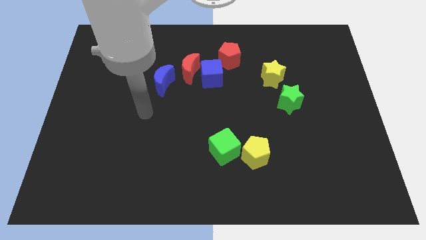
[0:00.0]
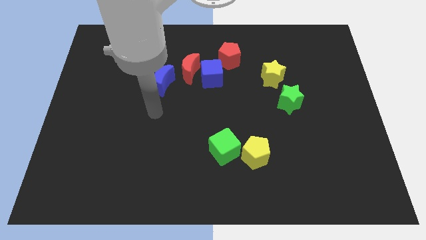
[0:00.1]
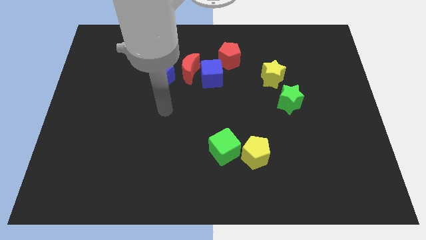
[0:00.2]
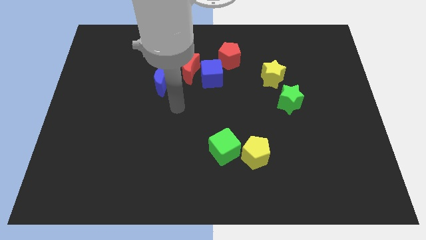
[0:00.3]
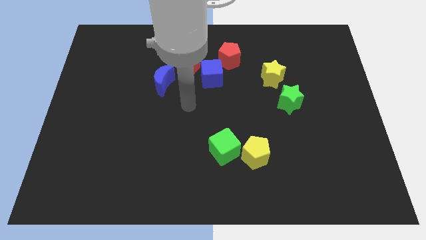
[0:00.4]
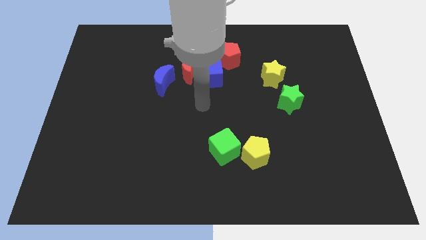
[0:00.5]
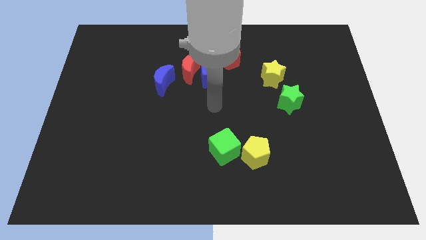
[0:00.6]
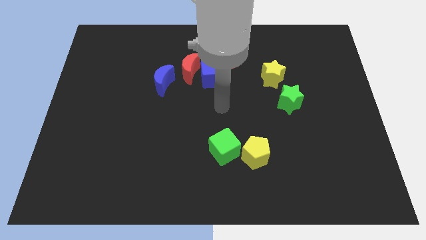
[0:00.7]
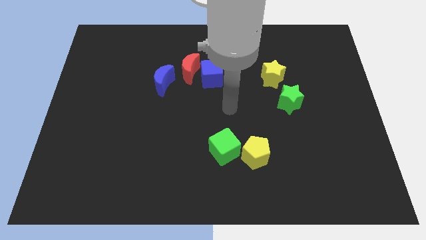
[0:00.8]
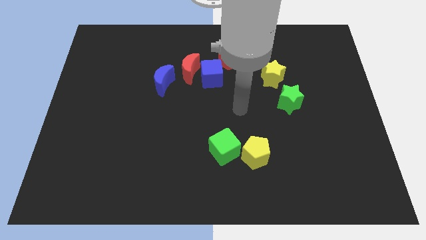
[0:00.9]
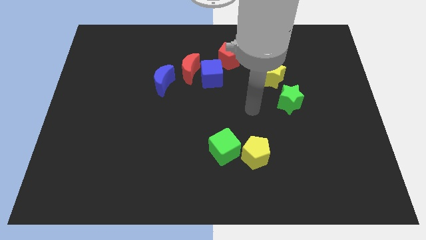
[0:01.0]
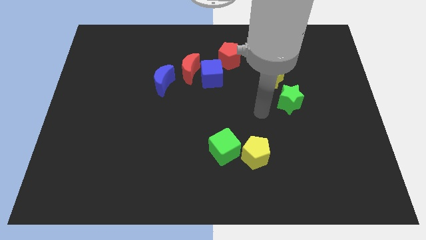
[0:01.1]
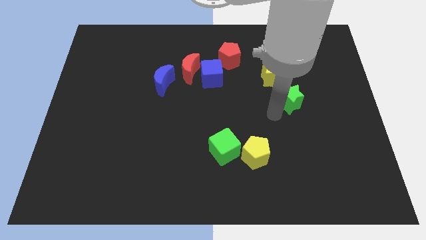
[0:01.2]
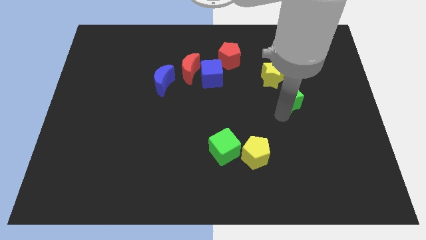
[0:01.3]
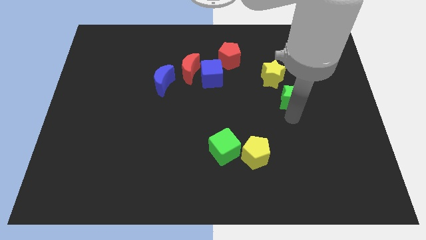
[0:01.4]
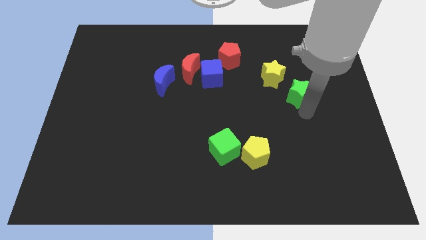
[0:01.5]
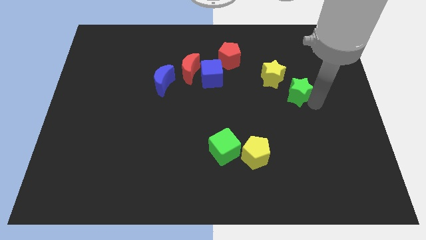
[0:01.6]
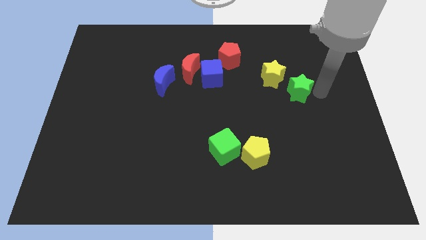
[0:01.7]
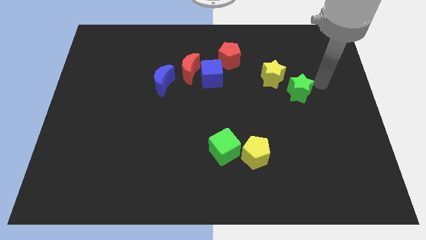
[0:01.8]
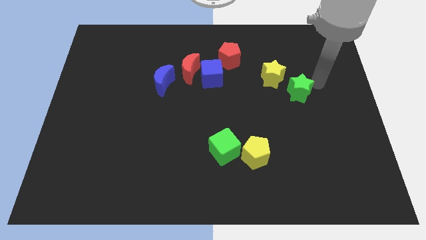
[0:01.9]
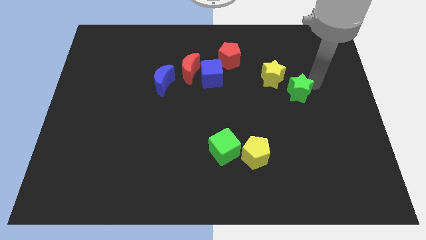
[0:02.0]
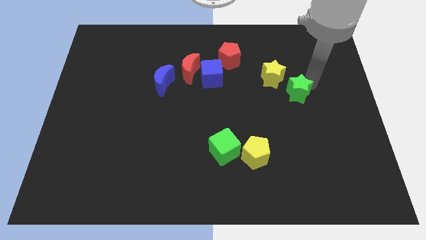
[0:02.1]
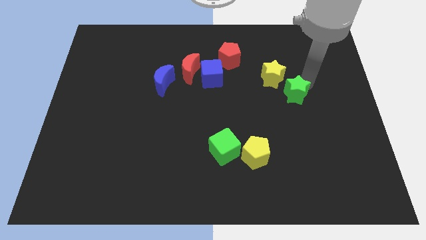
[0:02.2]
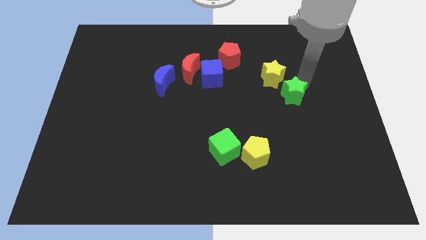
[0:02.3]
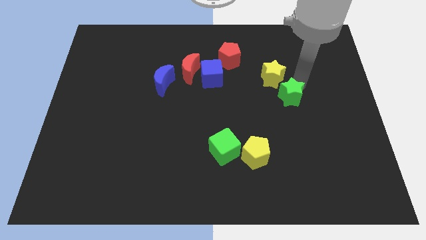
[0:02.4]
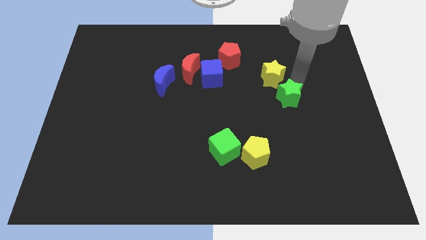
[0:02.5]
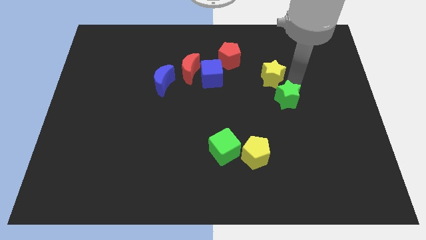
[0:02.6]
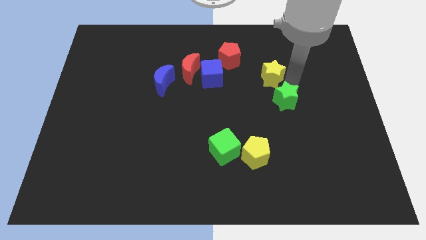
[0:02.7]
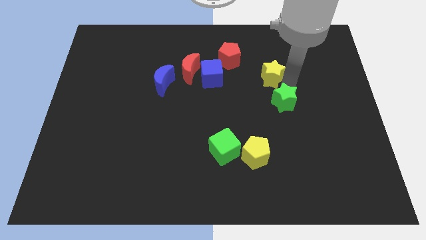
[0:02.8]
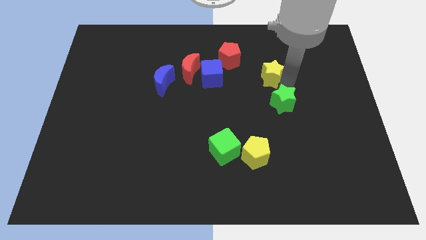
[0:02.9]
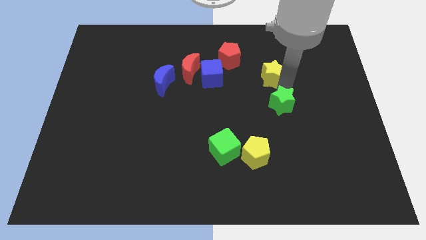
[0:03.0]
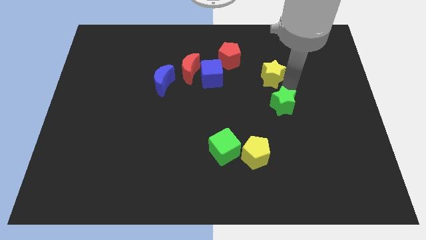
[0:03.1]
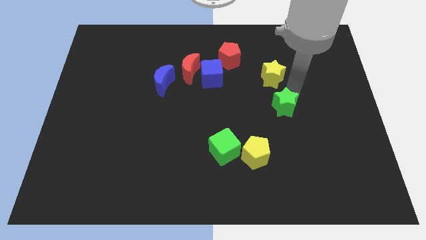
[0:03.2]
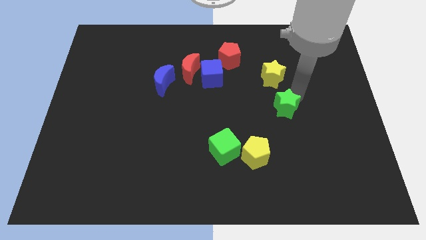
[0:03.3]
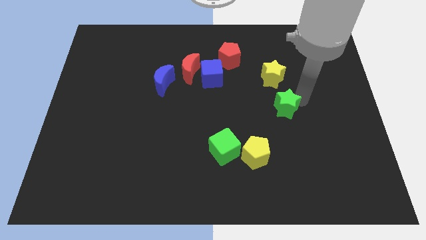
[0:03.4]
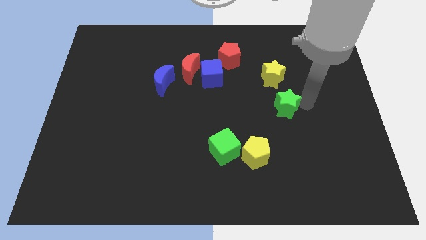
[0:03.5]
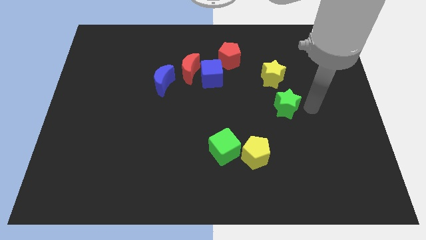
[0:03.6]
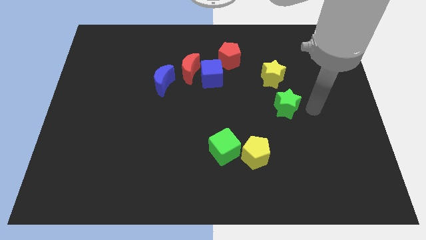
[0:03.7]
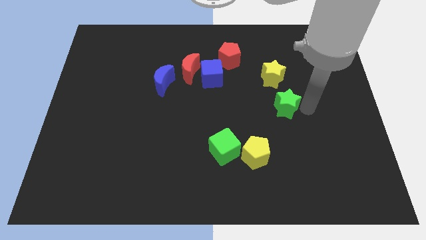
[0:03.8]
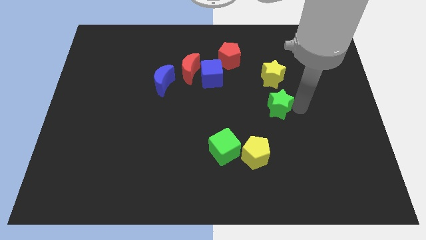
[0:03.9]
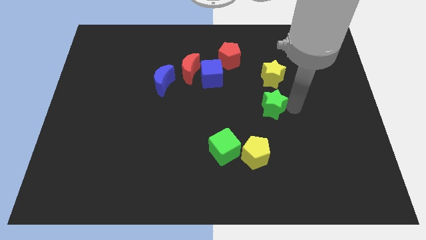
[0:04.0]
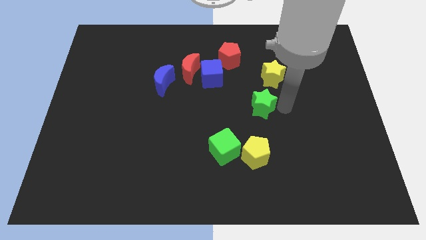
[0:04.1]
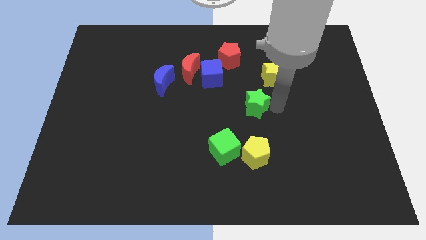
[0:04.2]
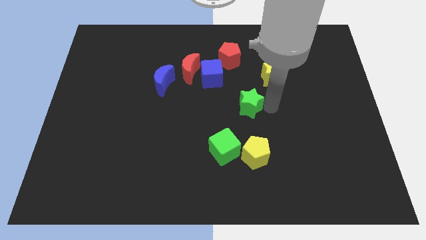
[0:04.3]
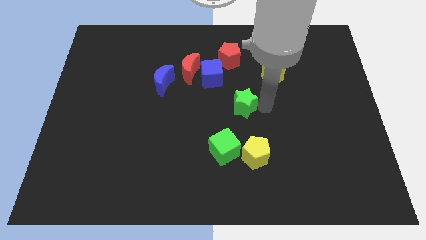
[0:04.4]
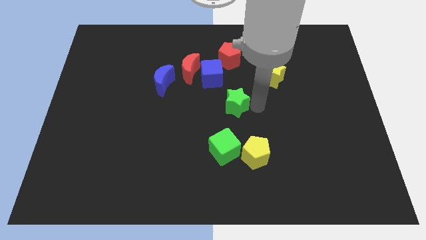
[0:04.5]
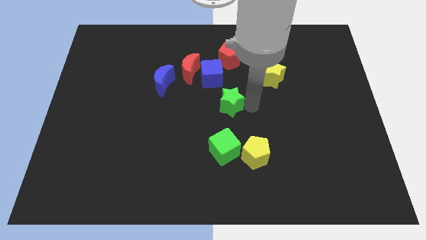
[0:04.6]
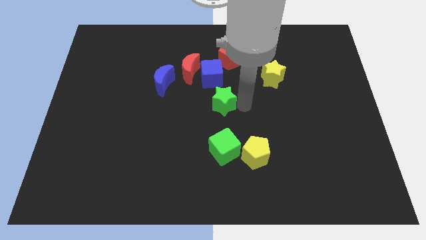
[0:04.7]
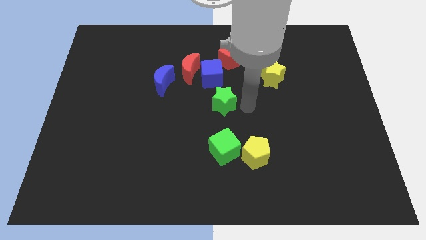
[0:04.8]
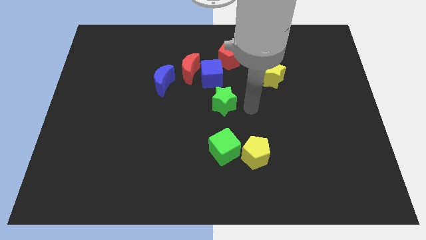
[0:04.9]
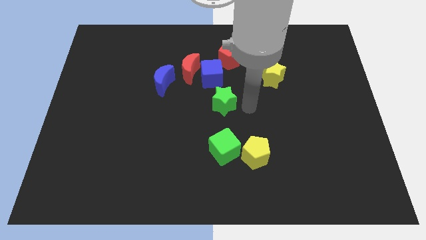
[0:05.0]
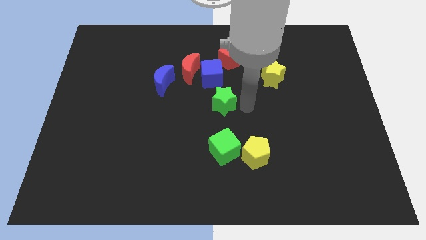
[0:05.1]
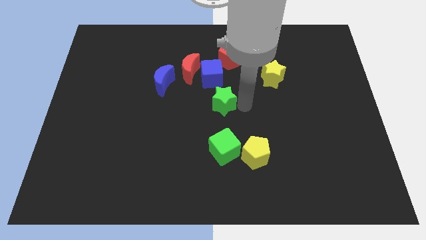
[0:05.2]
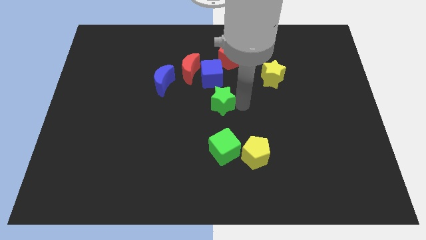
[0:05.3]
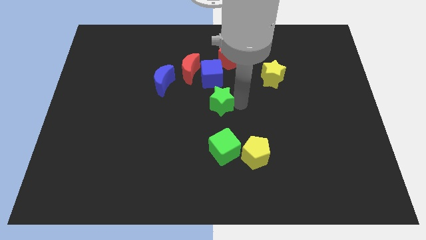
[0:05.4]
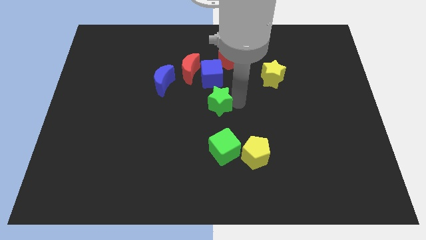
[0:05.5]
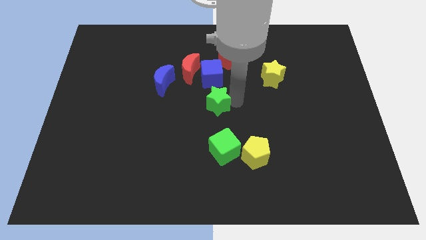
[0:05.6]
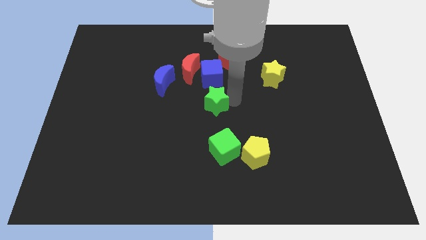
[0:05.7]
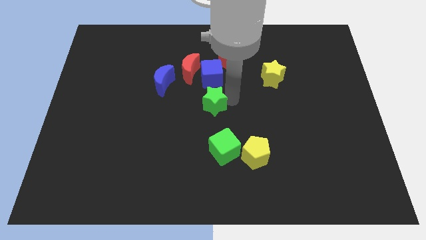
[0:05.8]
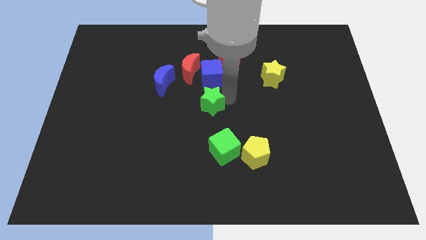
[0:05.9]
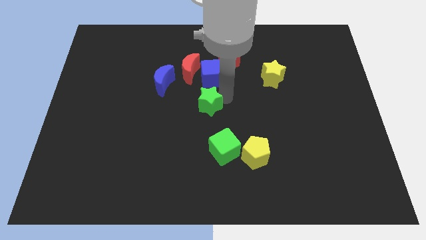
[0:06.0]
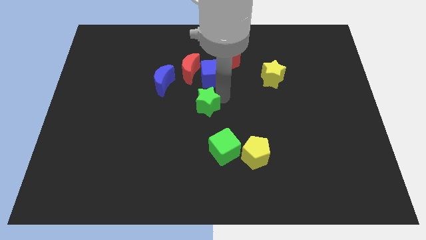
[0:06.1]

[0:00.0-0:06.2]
slide the green star left

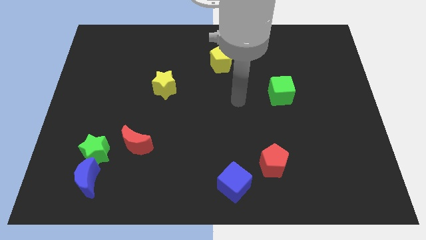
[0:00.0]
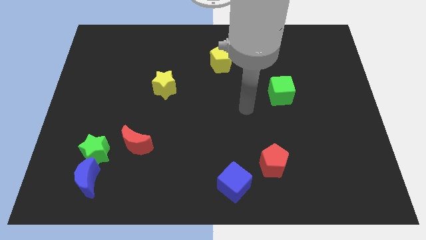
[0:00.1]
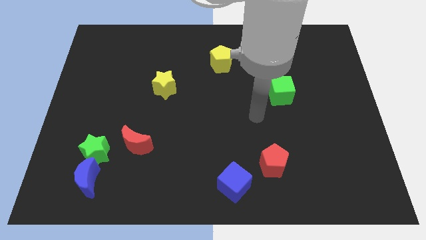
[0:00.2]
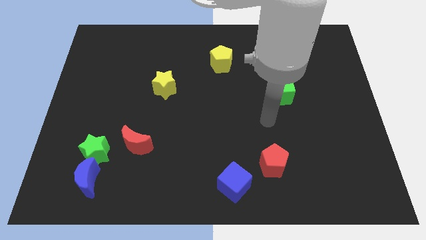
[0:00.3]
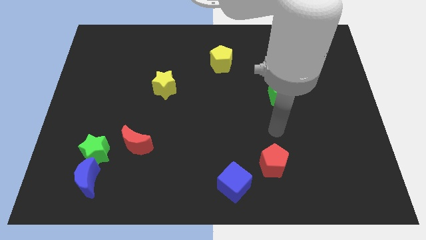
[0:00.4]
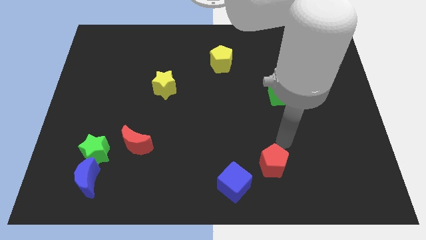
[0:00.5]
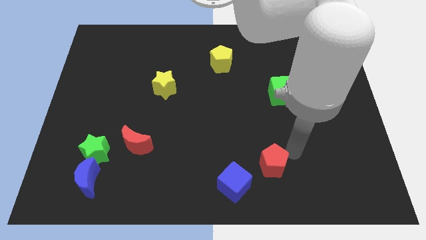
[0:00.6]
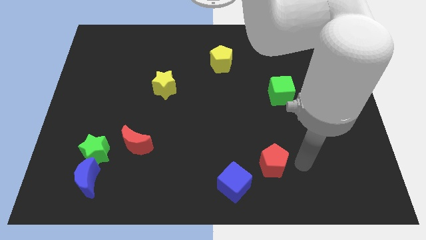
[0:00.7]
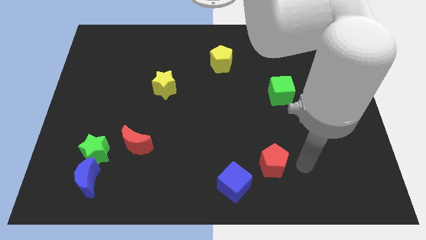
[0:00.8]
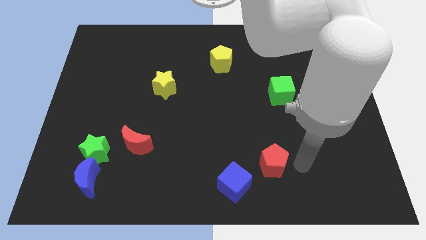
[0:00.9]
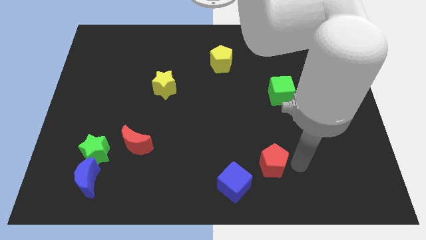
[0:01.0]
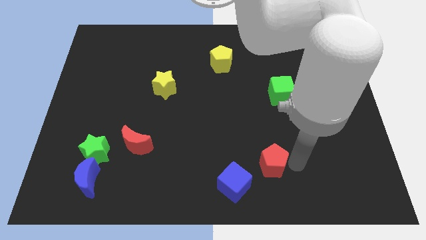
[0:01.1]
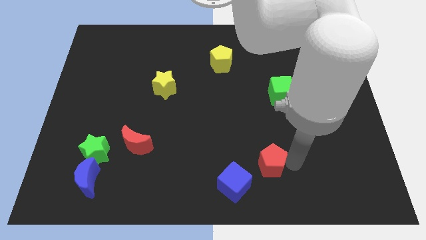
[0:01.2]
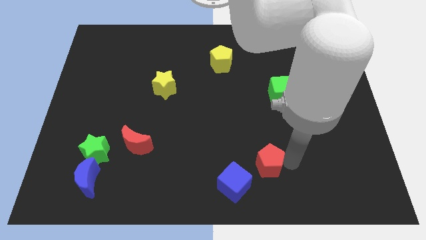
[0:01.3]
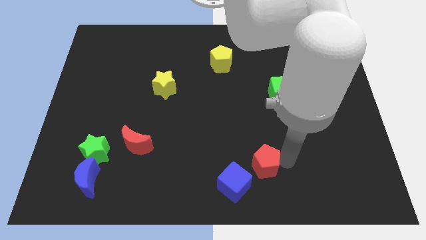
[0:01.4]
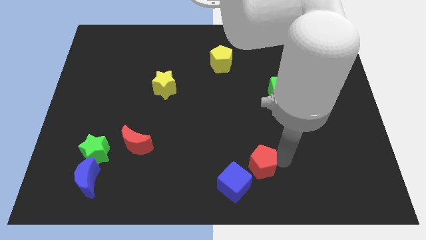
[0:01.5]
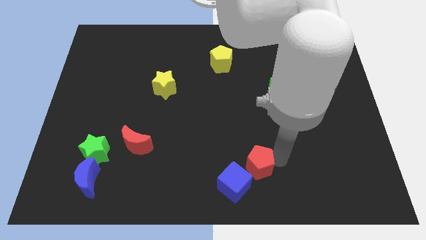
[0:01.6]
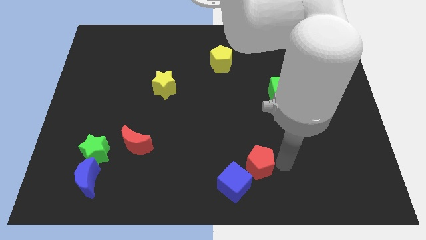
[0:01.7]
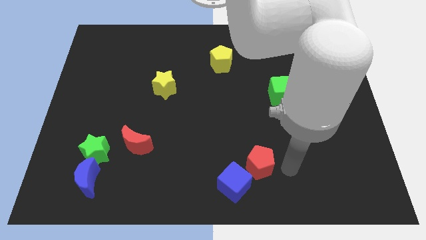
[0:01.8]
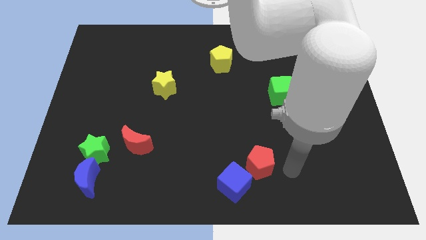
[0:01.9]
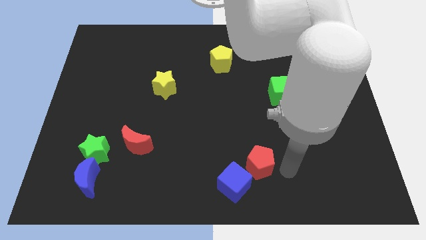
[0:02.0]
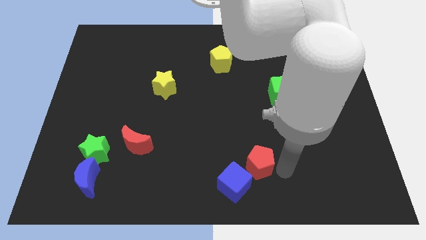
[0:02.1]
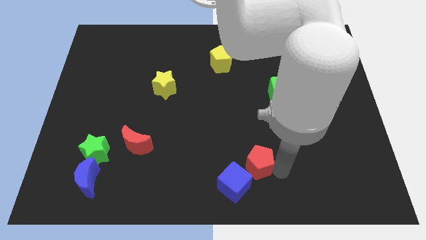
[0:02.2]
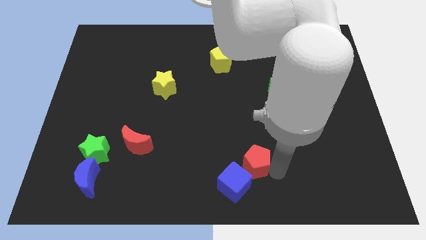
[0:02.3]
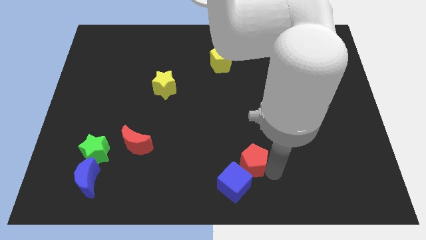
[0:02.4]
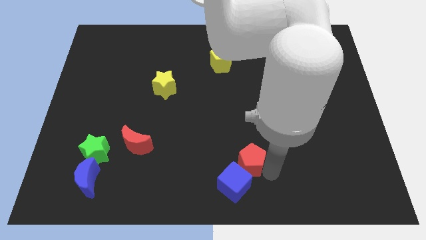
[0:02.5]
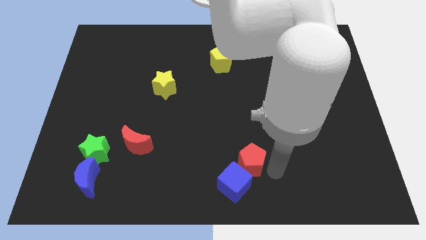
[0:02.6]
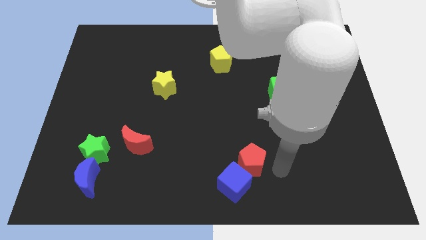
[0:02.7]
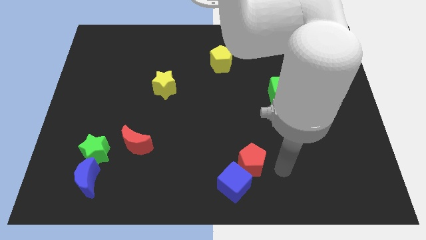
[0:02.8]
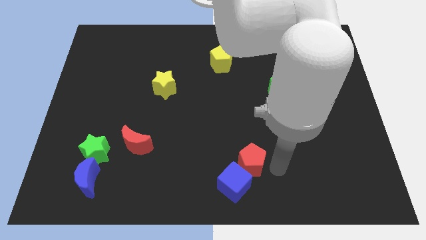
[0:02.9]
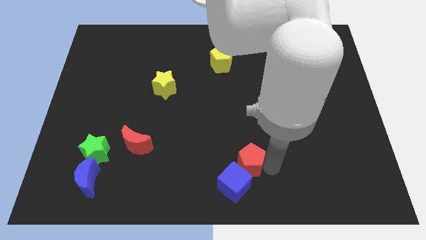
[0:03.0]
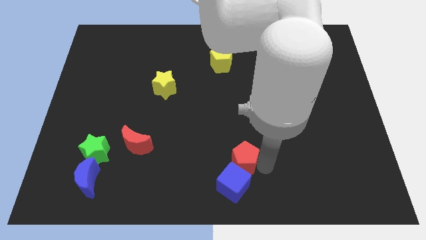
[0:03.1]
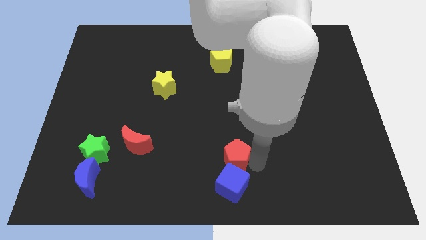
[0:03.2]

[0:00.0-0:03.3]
slide the red pentagon left a little bit
